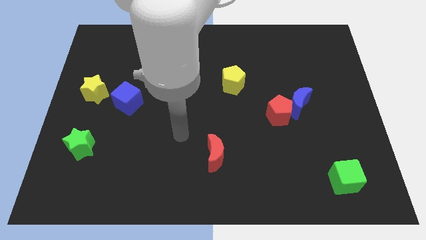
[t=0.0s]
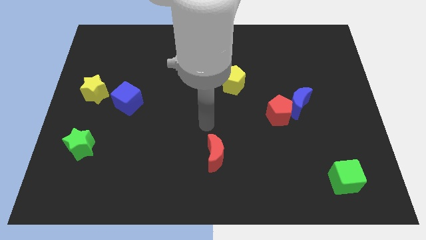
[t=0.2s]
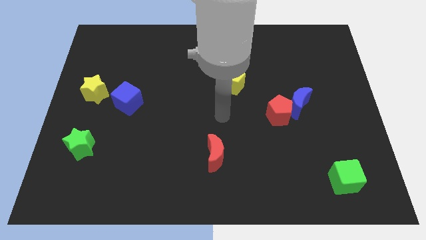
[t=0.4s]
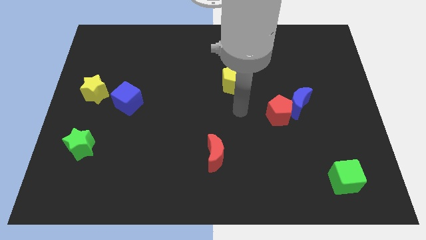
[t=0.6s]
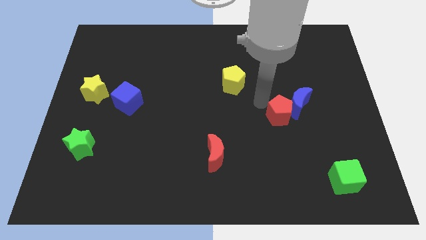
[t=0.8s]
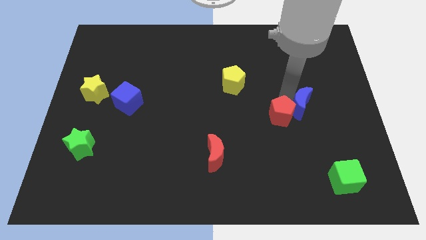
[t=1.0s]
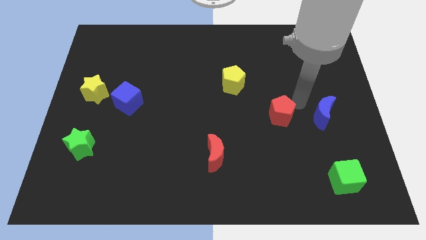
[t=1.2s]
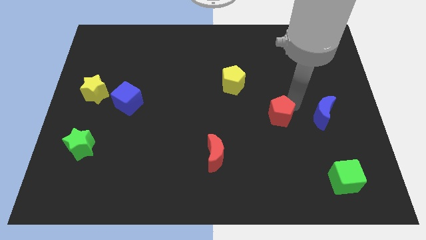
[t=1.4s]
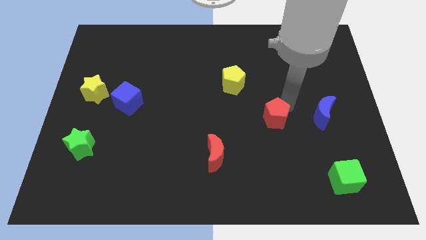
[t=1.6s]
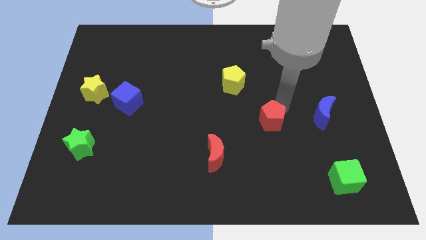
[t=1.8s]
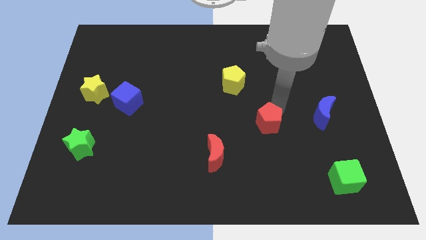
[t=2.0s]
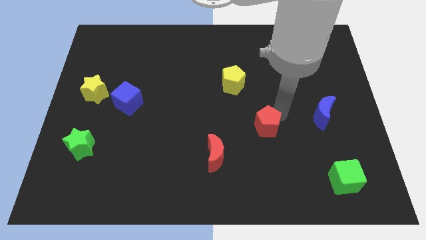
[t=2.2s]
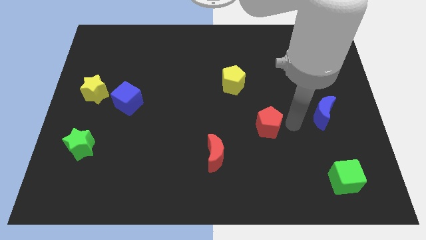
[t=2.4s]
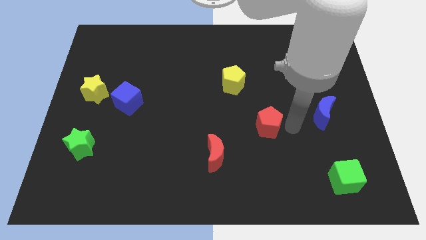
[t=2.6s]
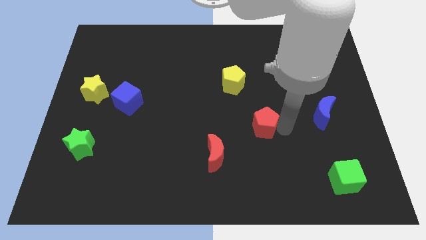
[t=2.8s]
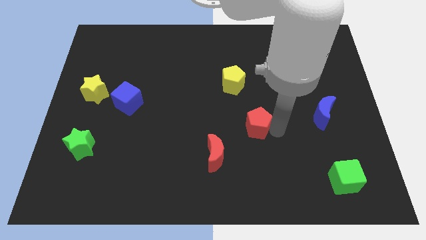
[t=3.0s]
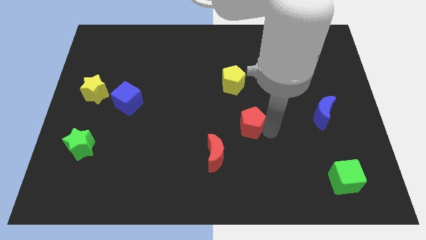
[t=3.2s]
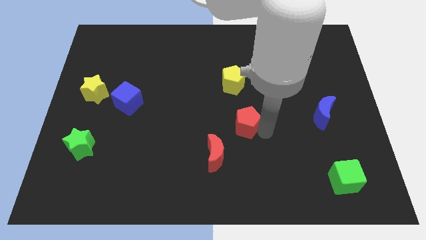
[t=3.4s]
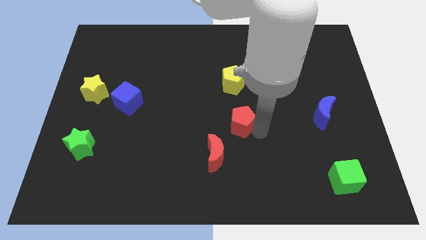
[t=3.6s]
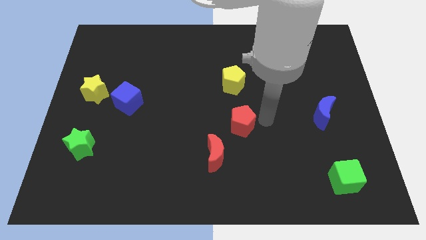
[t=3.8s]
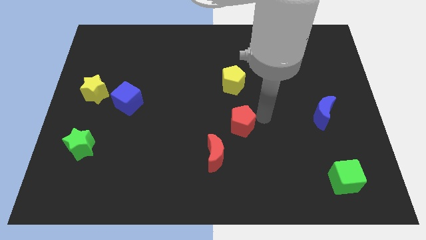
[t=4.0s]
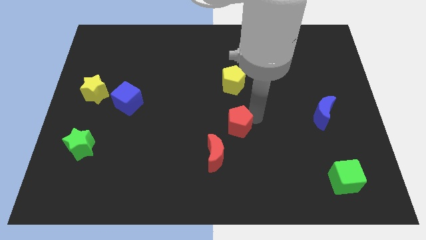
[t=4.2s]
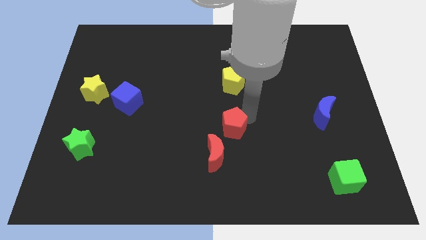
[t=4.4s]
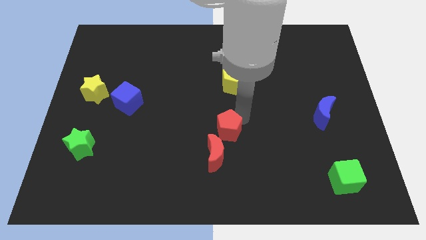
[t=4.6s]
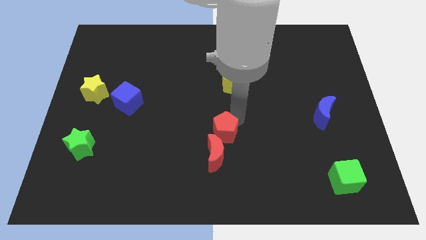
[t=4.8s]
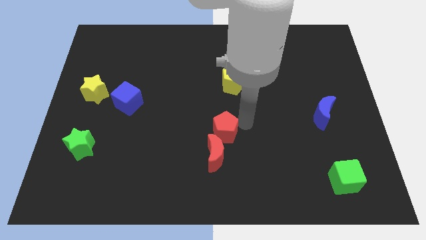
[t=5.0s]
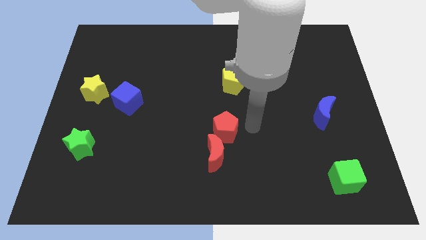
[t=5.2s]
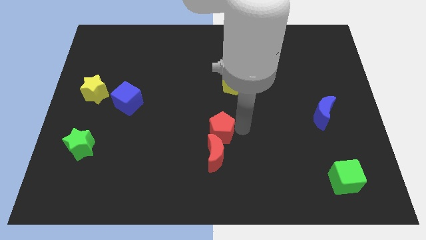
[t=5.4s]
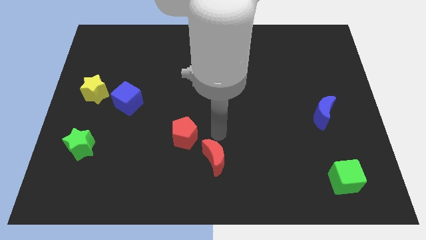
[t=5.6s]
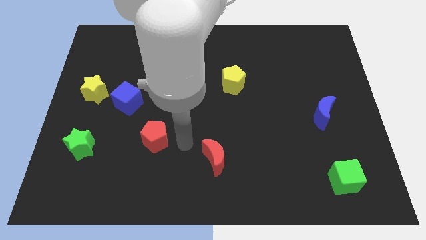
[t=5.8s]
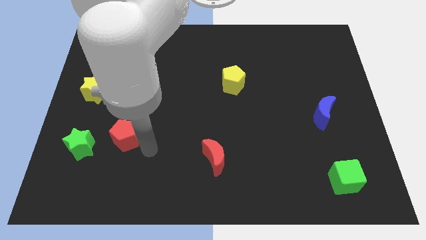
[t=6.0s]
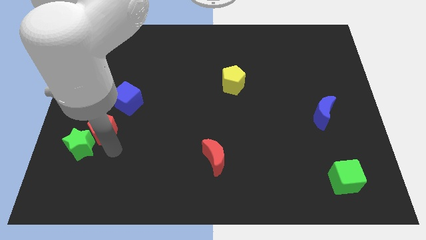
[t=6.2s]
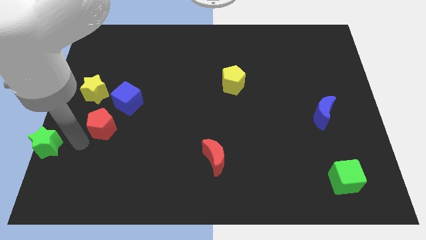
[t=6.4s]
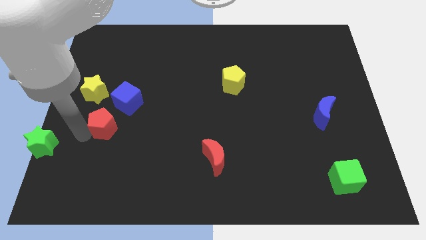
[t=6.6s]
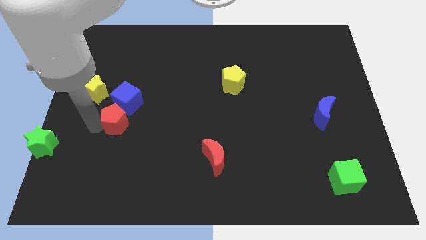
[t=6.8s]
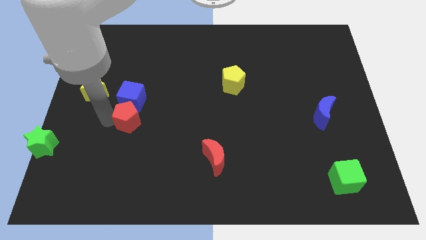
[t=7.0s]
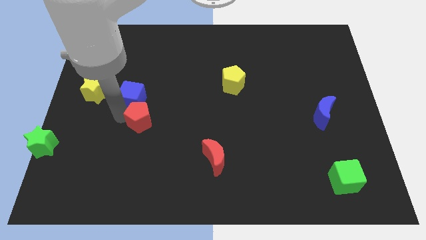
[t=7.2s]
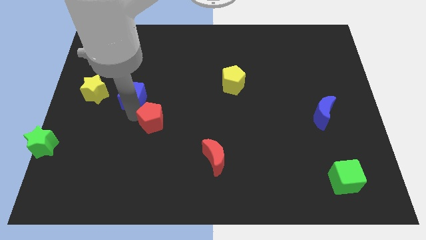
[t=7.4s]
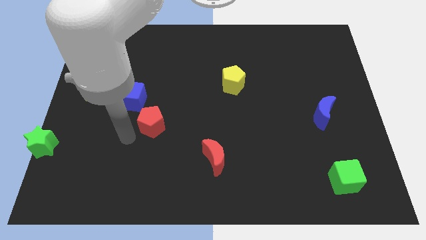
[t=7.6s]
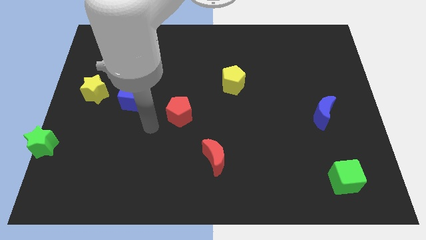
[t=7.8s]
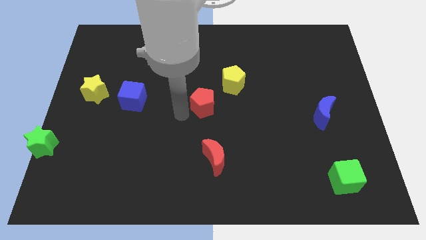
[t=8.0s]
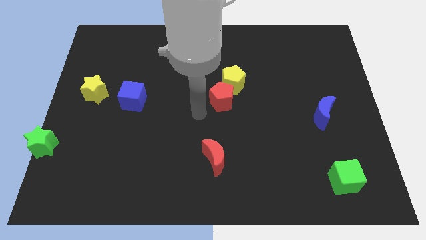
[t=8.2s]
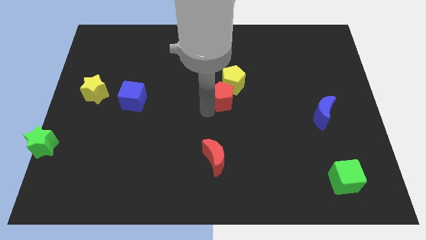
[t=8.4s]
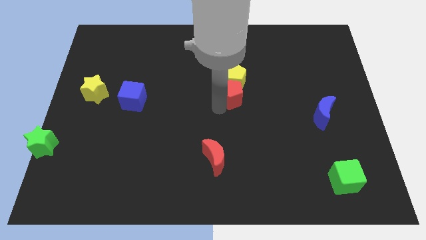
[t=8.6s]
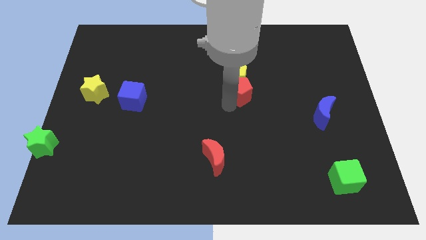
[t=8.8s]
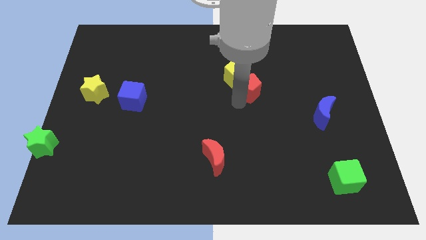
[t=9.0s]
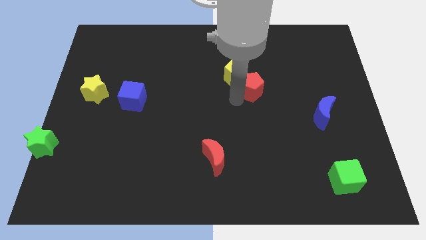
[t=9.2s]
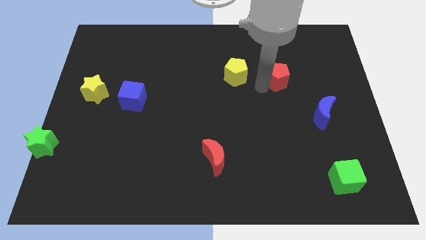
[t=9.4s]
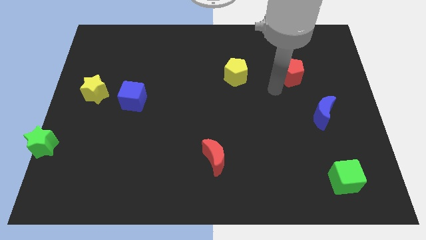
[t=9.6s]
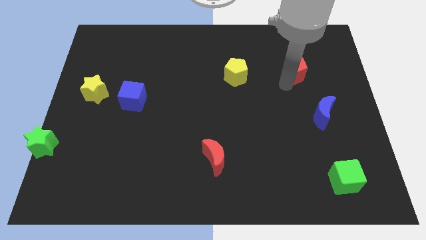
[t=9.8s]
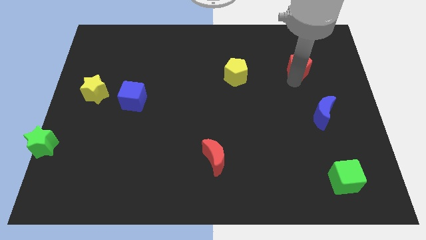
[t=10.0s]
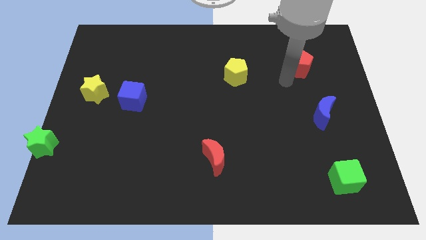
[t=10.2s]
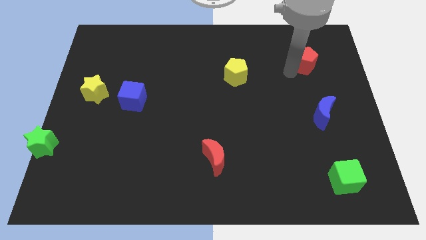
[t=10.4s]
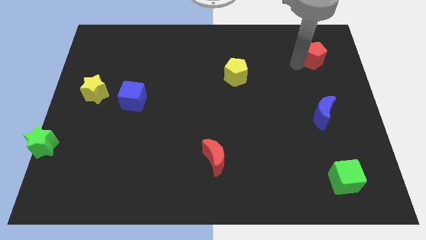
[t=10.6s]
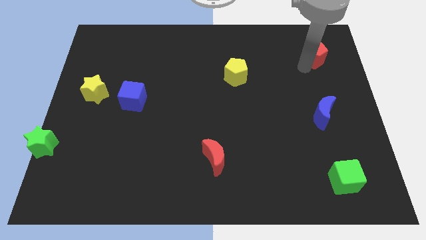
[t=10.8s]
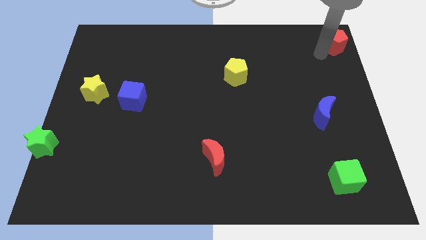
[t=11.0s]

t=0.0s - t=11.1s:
push the red pentagon to the upper right corner

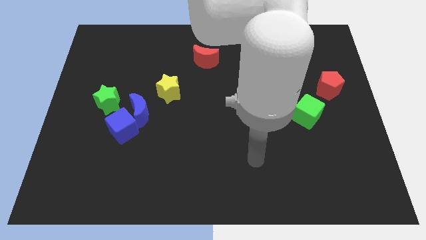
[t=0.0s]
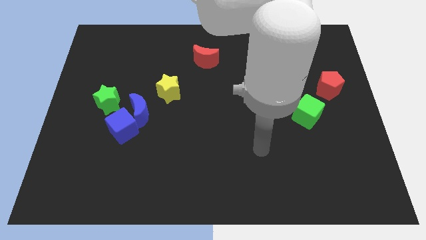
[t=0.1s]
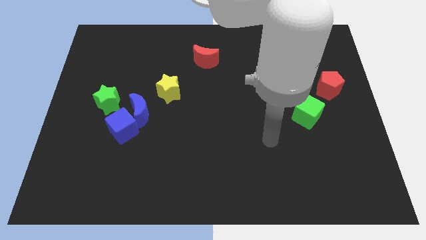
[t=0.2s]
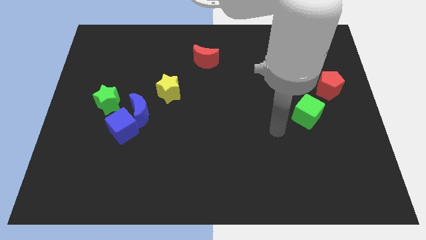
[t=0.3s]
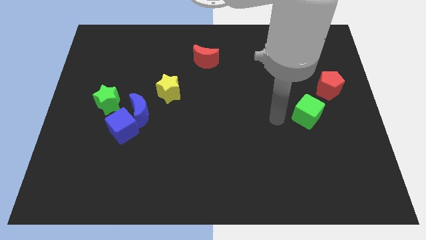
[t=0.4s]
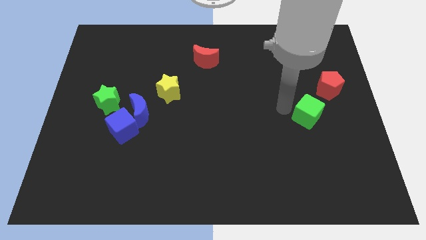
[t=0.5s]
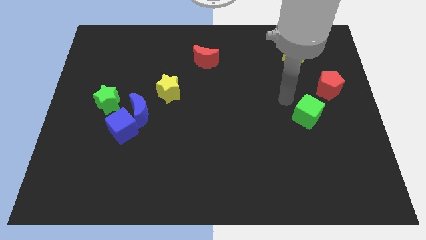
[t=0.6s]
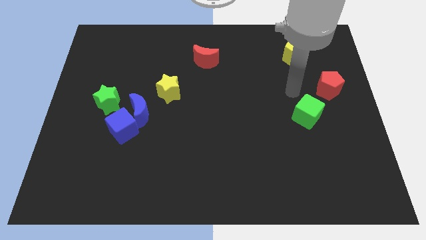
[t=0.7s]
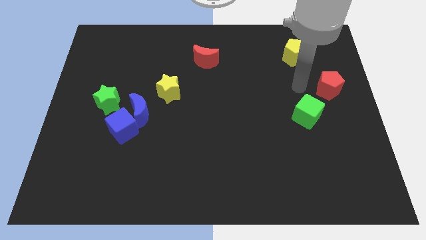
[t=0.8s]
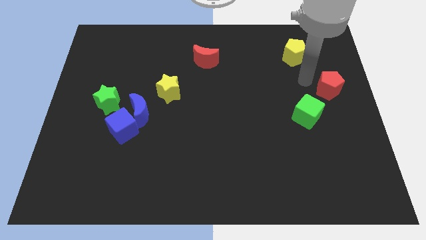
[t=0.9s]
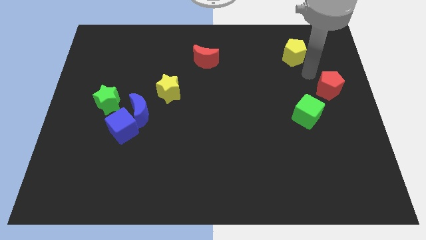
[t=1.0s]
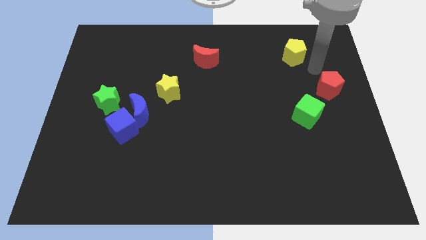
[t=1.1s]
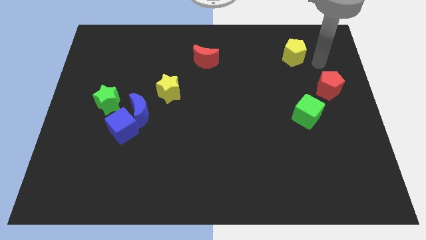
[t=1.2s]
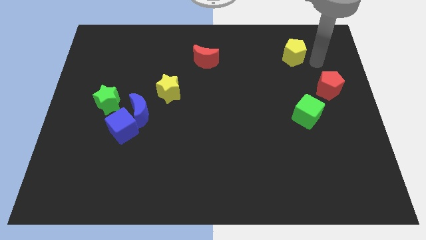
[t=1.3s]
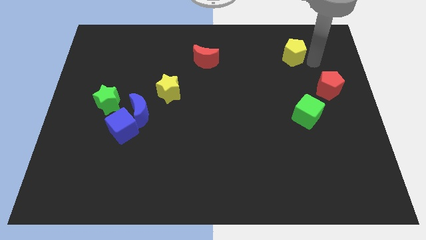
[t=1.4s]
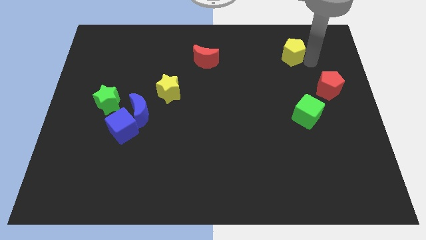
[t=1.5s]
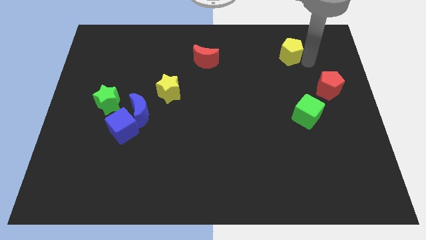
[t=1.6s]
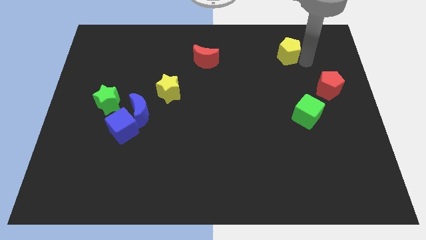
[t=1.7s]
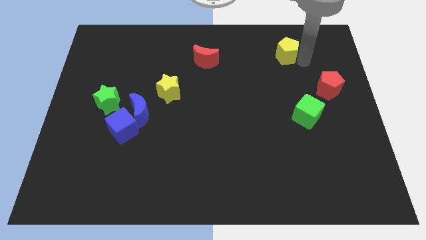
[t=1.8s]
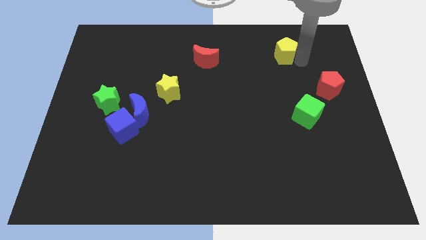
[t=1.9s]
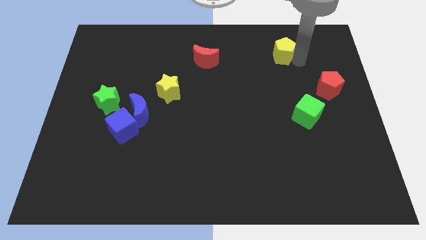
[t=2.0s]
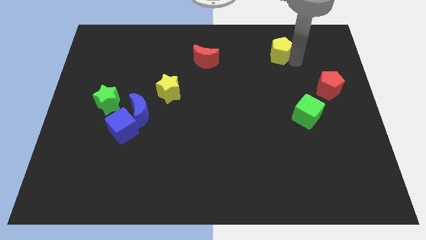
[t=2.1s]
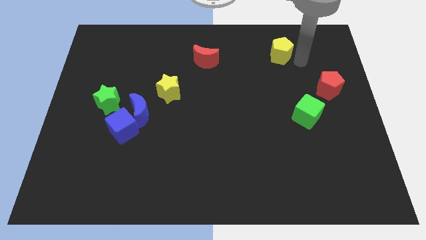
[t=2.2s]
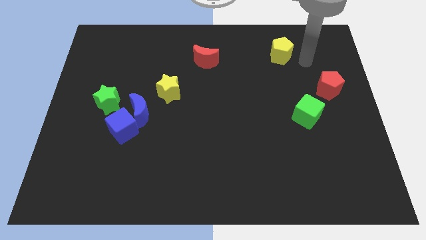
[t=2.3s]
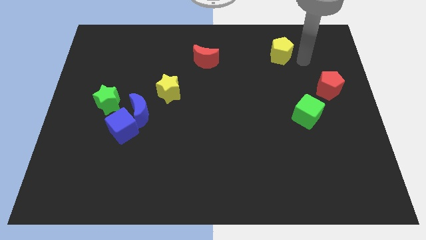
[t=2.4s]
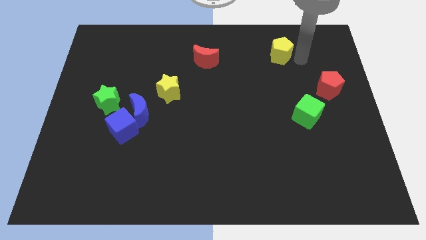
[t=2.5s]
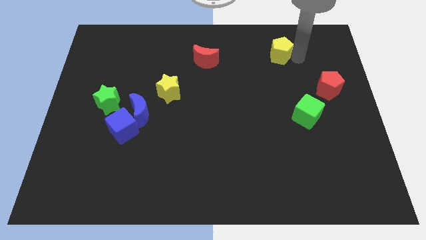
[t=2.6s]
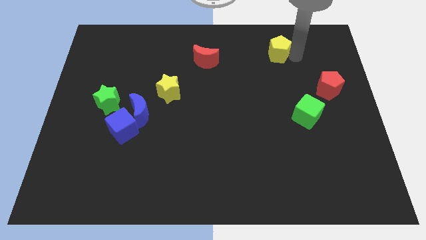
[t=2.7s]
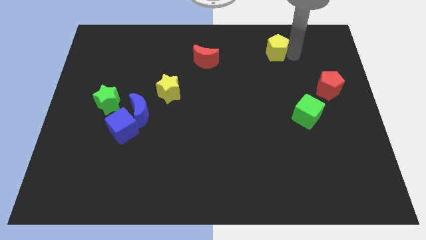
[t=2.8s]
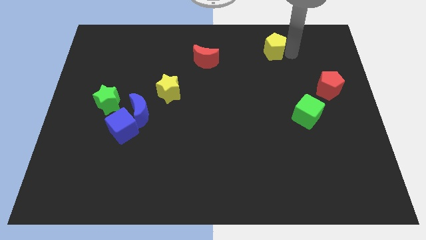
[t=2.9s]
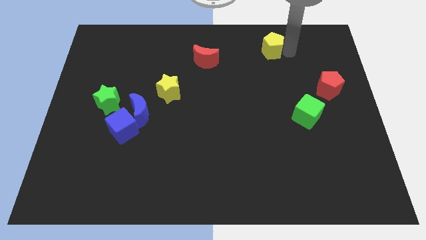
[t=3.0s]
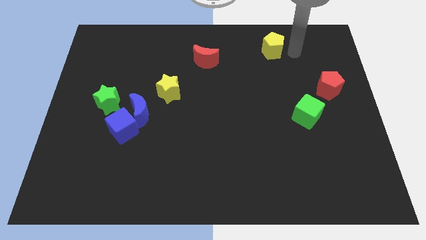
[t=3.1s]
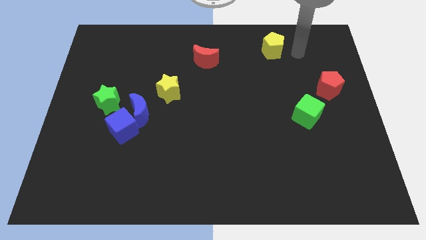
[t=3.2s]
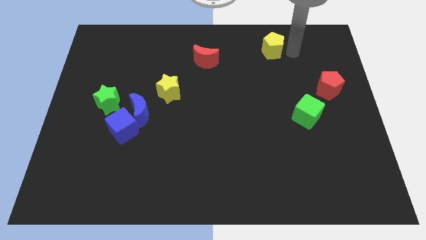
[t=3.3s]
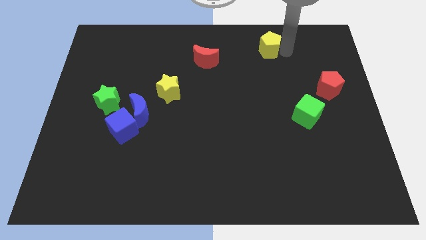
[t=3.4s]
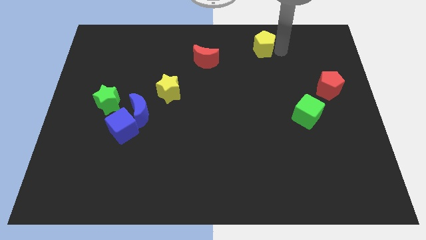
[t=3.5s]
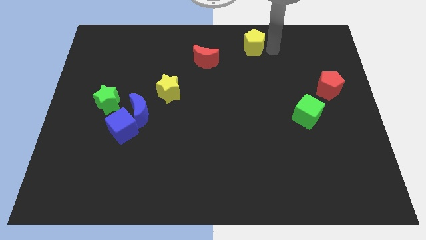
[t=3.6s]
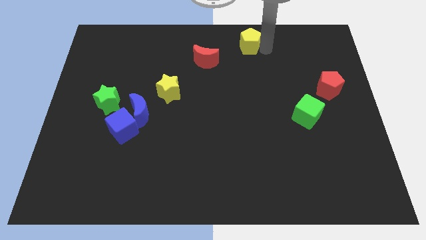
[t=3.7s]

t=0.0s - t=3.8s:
put the yellow pentagon to the top
